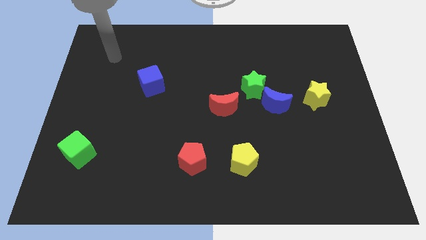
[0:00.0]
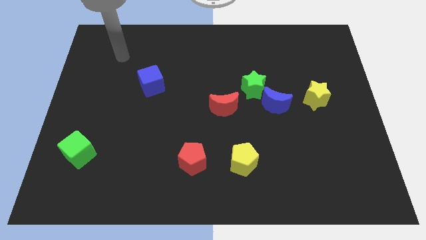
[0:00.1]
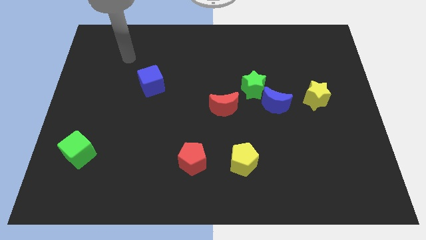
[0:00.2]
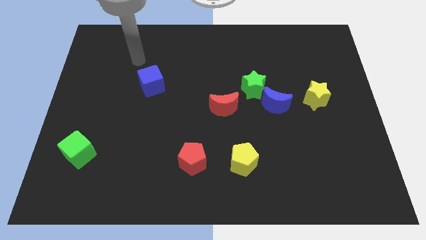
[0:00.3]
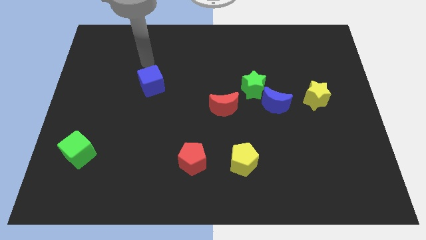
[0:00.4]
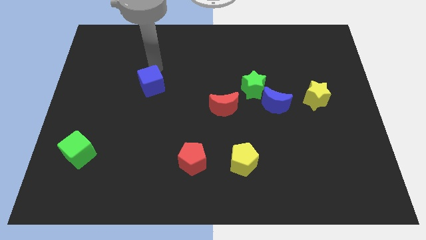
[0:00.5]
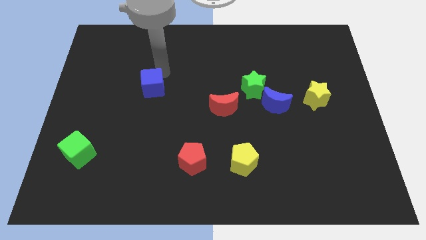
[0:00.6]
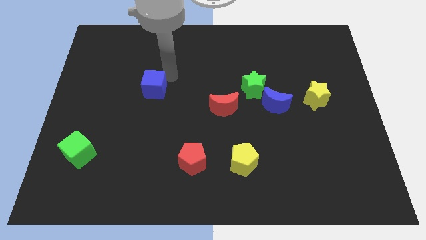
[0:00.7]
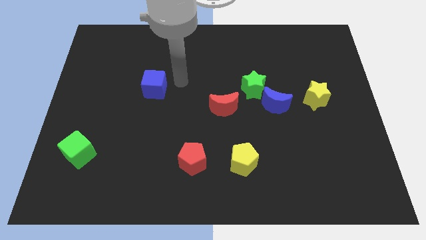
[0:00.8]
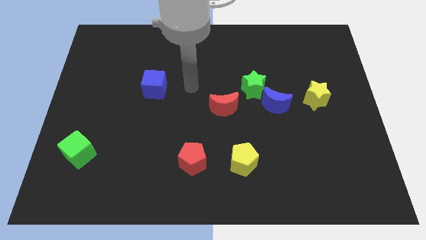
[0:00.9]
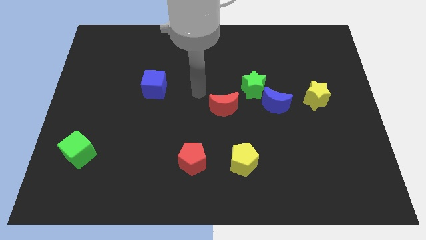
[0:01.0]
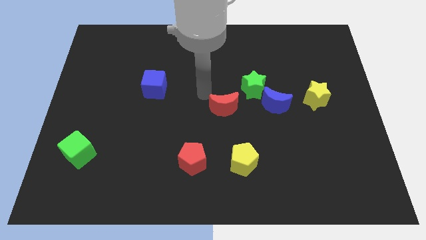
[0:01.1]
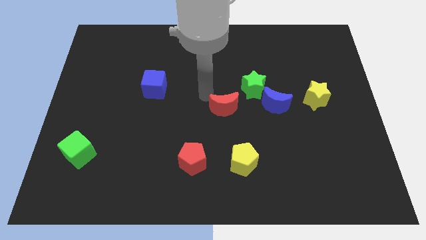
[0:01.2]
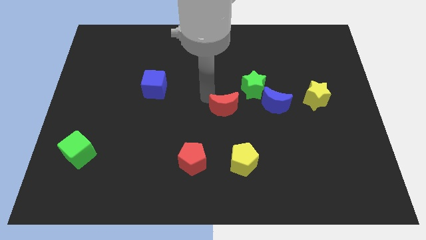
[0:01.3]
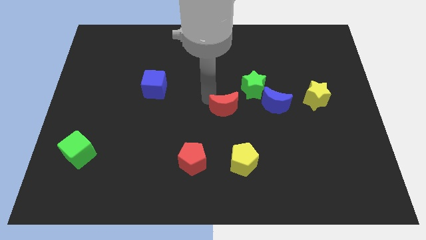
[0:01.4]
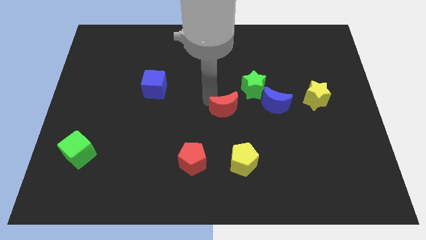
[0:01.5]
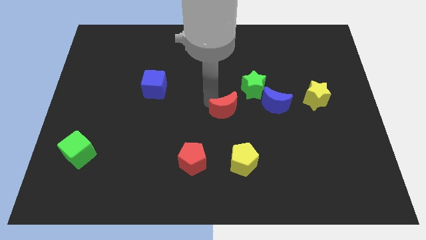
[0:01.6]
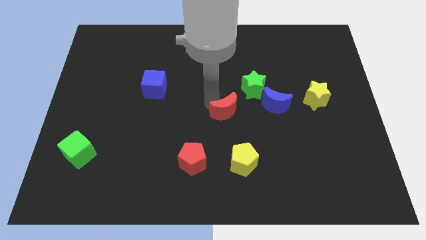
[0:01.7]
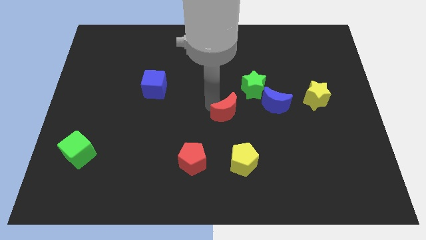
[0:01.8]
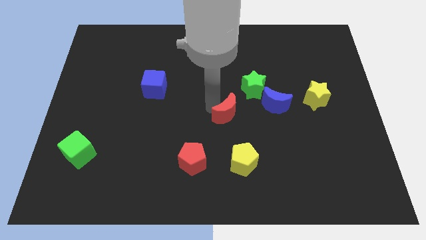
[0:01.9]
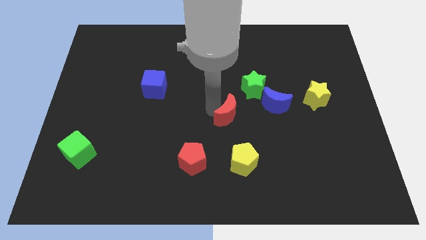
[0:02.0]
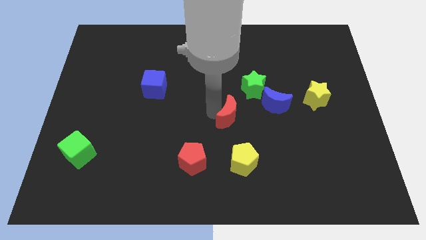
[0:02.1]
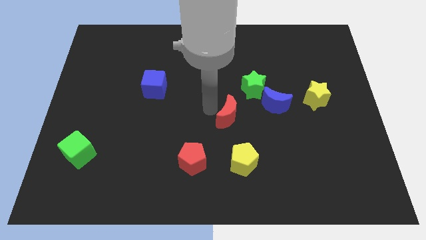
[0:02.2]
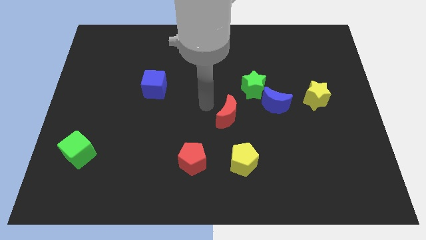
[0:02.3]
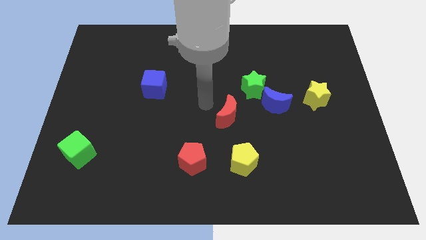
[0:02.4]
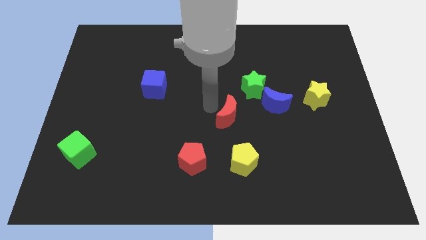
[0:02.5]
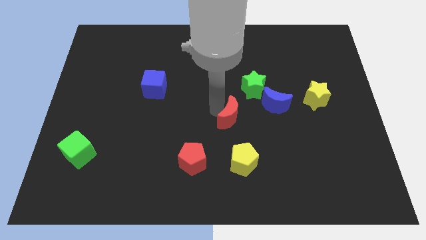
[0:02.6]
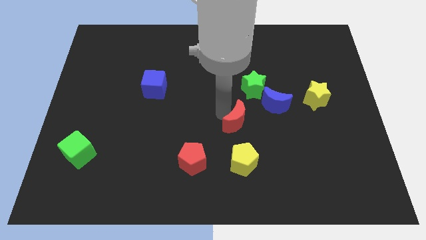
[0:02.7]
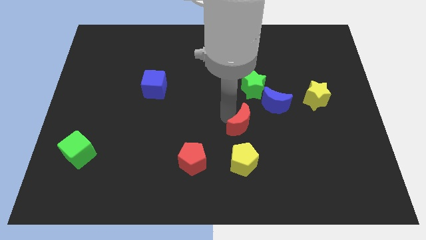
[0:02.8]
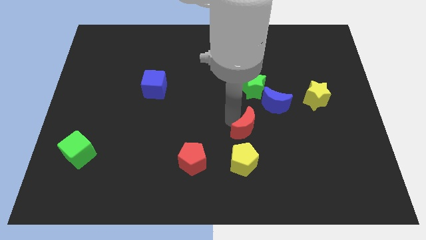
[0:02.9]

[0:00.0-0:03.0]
move the red moon a bit diagonally downwards and right

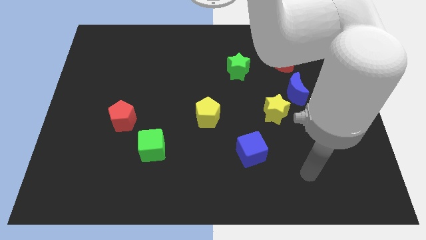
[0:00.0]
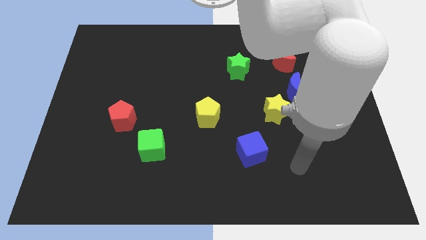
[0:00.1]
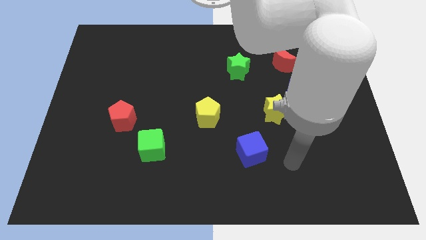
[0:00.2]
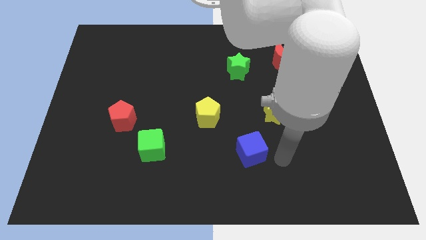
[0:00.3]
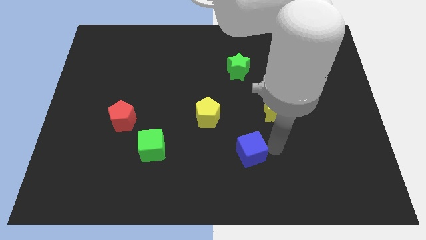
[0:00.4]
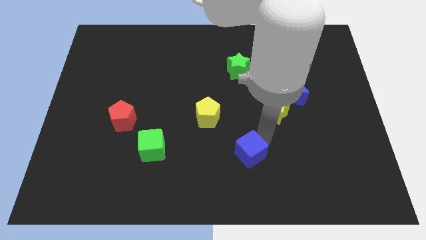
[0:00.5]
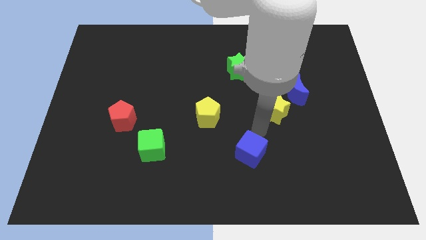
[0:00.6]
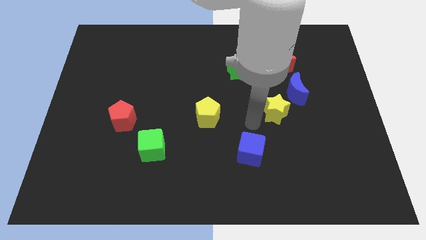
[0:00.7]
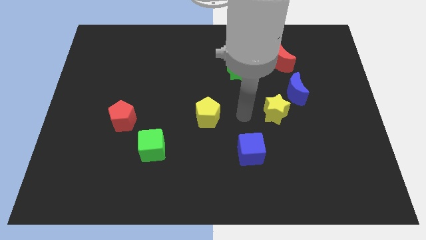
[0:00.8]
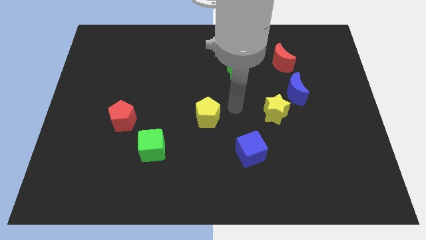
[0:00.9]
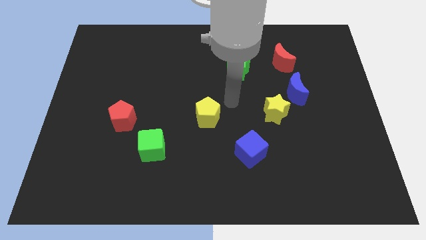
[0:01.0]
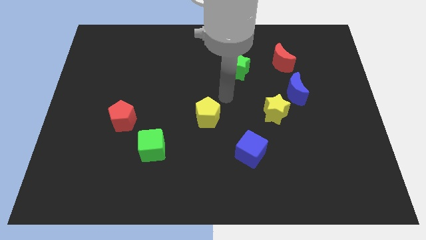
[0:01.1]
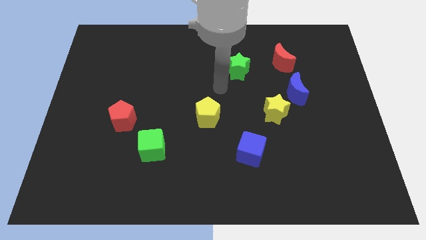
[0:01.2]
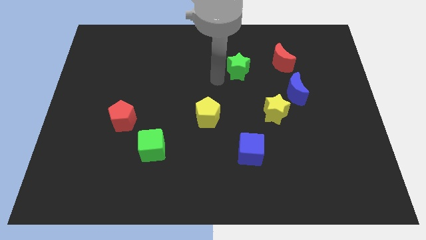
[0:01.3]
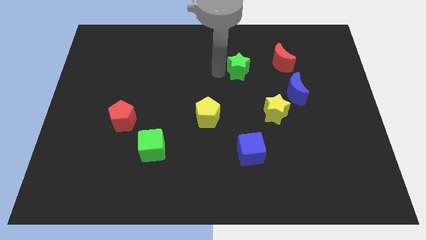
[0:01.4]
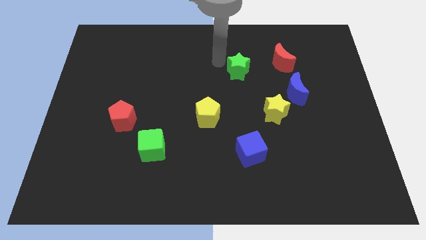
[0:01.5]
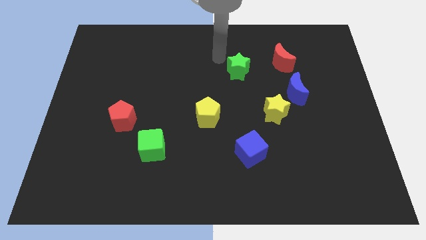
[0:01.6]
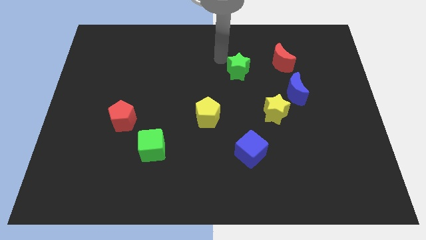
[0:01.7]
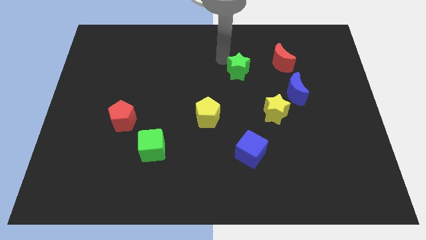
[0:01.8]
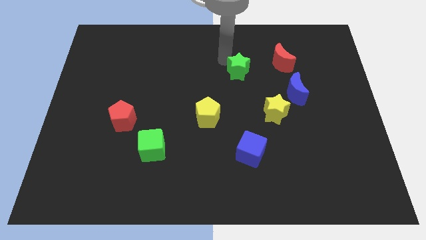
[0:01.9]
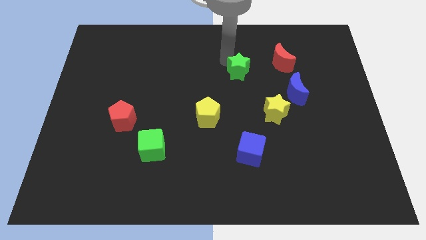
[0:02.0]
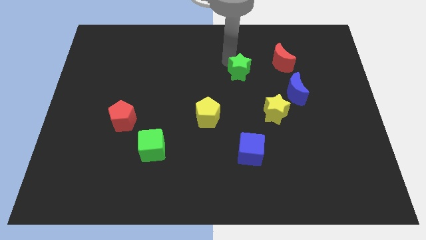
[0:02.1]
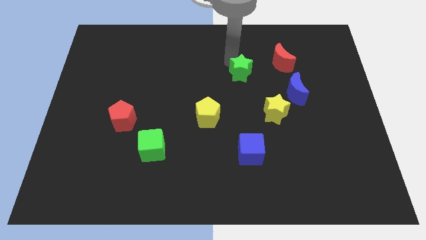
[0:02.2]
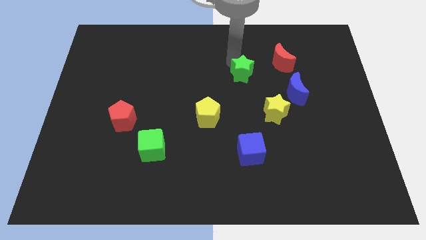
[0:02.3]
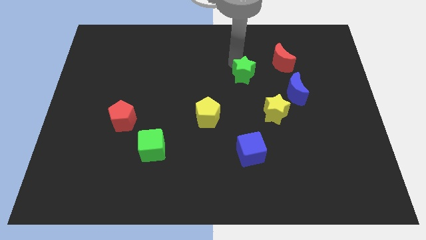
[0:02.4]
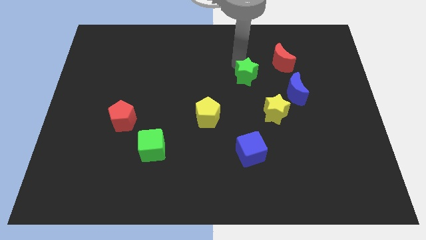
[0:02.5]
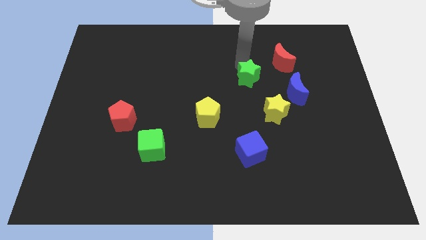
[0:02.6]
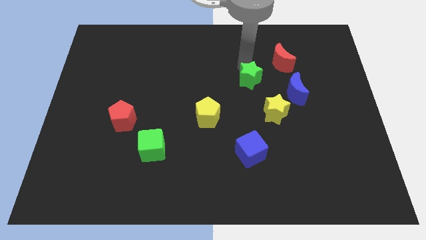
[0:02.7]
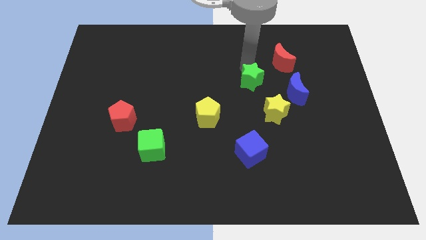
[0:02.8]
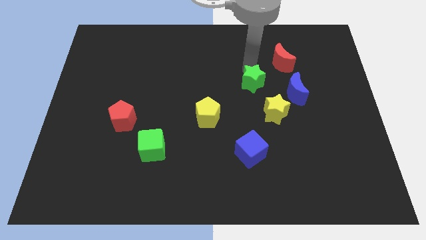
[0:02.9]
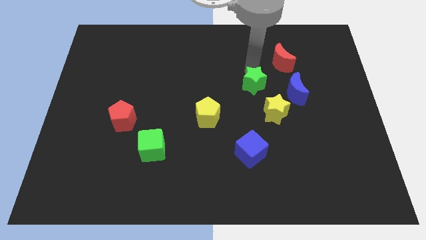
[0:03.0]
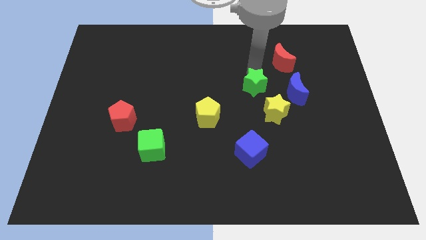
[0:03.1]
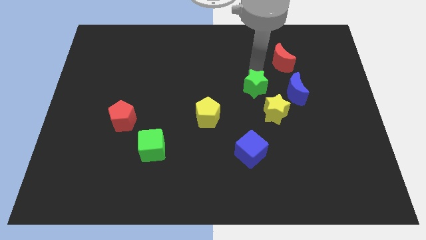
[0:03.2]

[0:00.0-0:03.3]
slightly slide the green star down and to the right

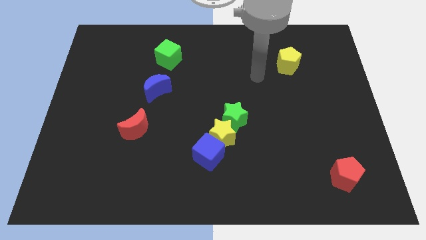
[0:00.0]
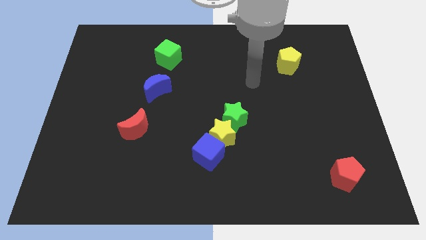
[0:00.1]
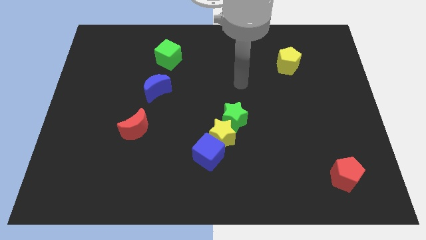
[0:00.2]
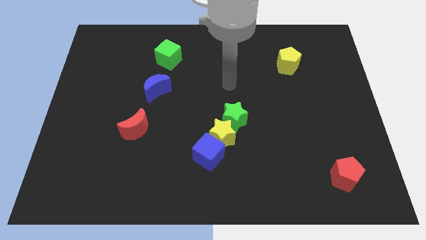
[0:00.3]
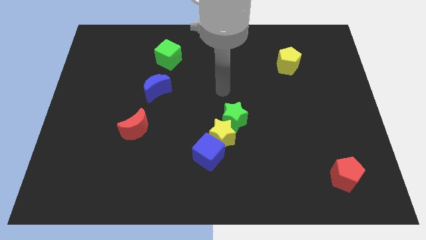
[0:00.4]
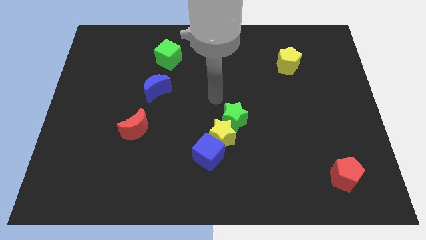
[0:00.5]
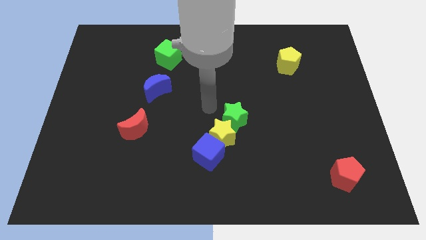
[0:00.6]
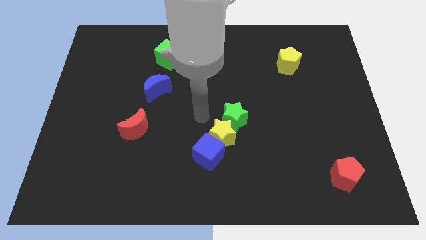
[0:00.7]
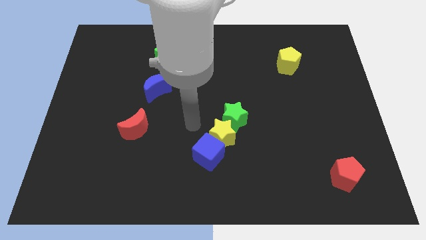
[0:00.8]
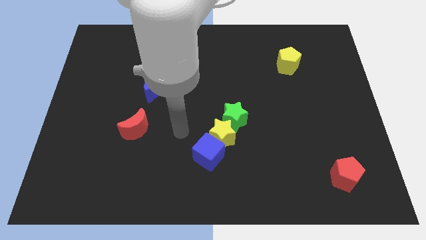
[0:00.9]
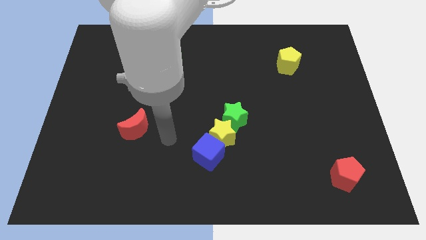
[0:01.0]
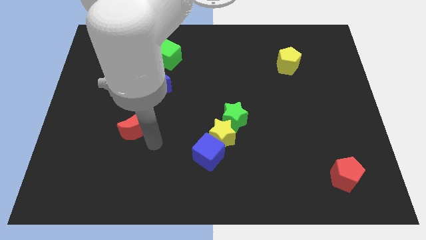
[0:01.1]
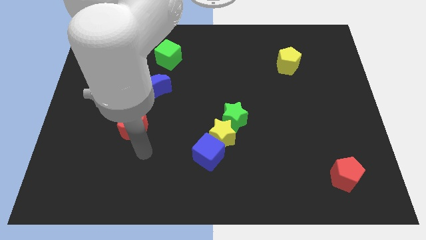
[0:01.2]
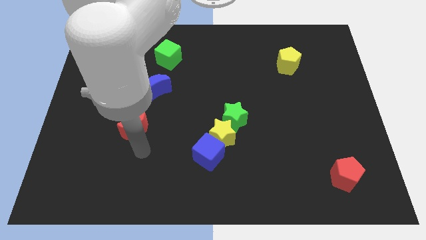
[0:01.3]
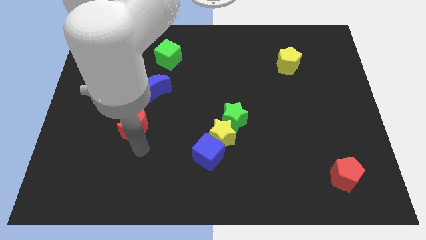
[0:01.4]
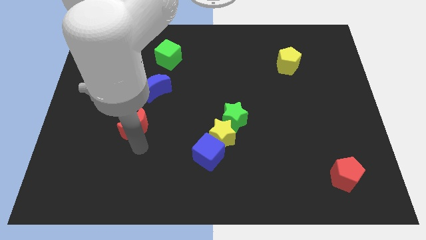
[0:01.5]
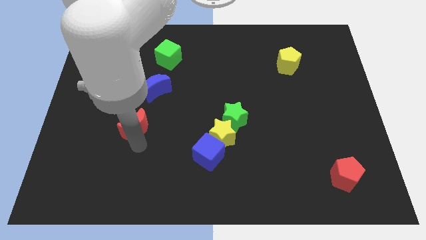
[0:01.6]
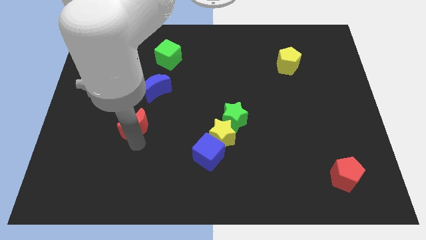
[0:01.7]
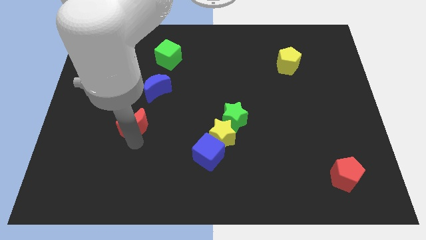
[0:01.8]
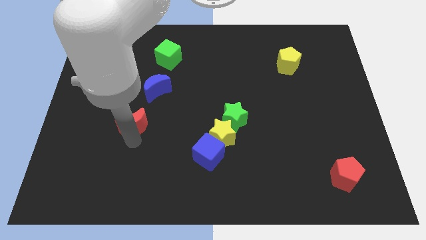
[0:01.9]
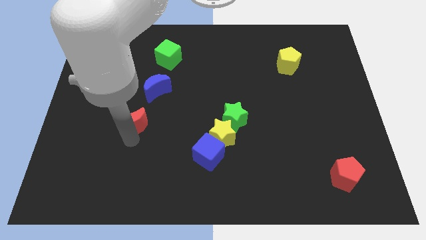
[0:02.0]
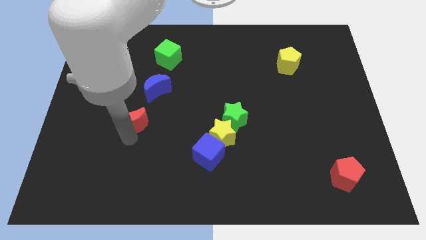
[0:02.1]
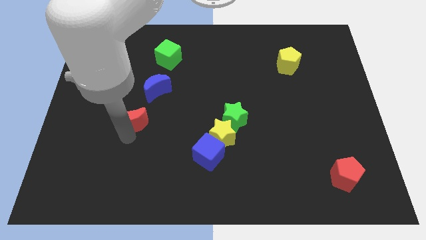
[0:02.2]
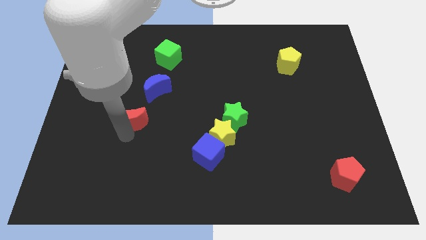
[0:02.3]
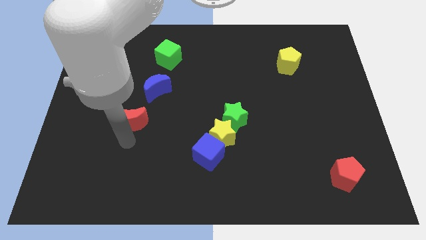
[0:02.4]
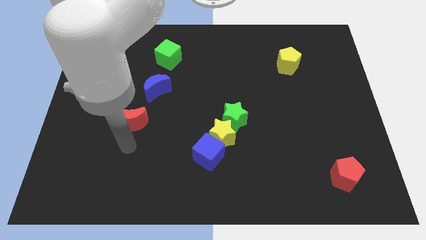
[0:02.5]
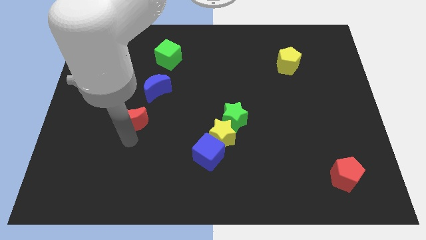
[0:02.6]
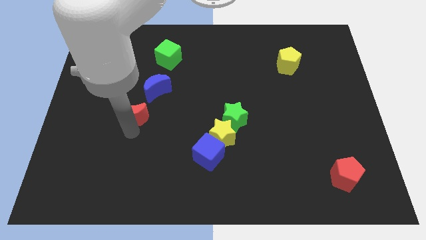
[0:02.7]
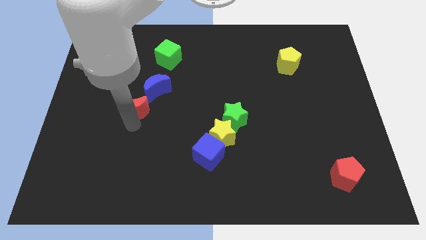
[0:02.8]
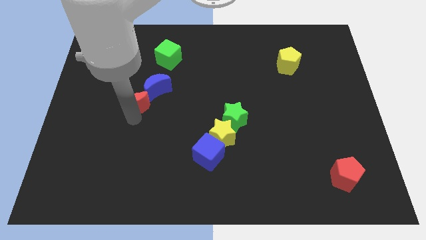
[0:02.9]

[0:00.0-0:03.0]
slightly slide the red moon up
